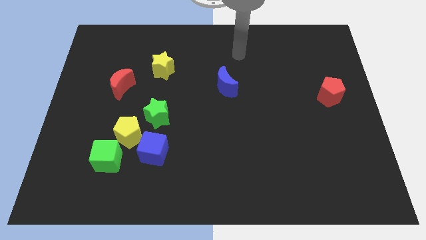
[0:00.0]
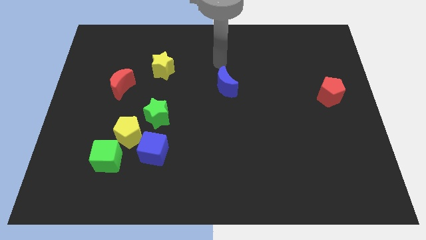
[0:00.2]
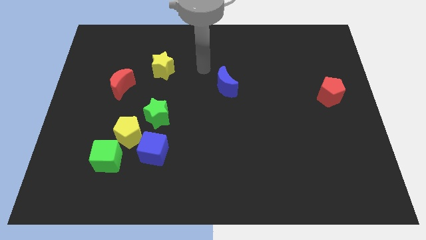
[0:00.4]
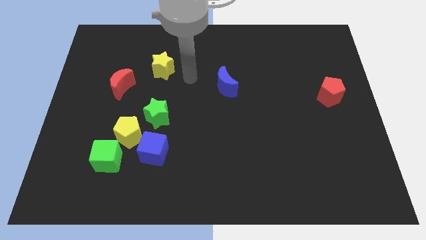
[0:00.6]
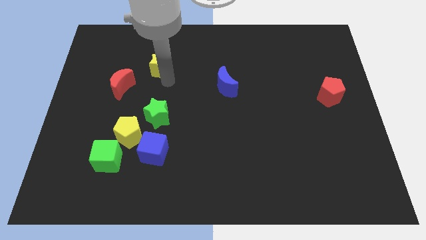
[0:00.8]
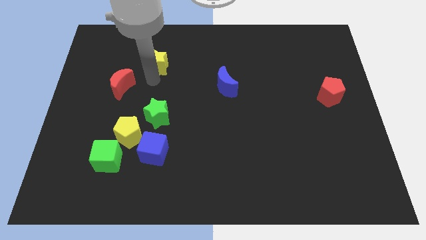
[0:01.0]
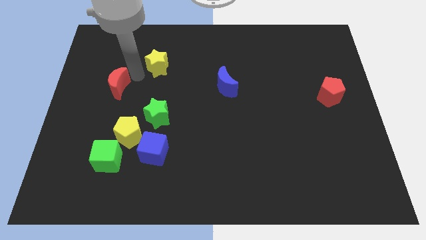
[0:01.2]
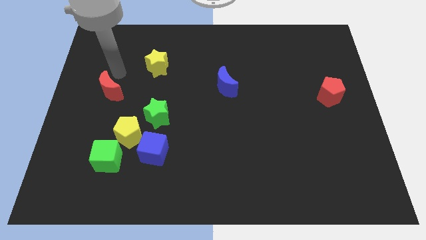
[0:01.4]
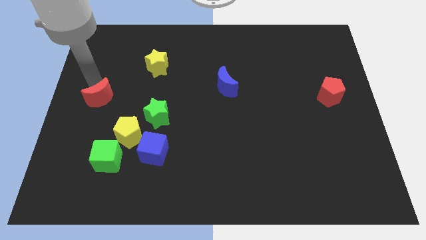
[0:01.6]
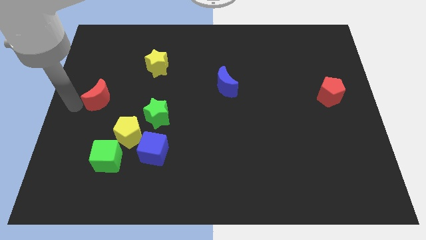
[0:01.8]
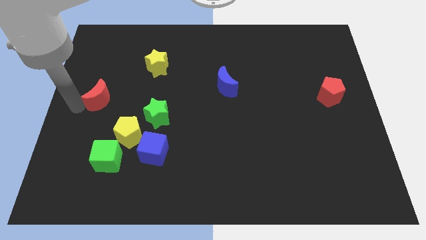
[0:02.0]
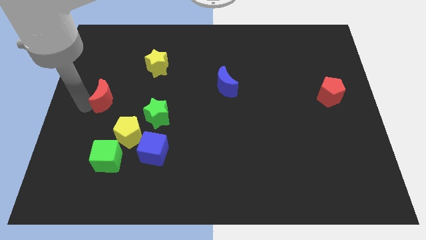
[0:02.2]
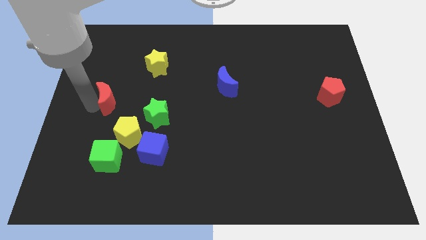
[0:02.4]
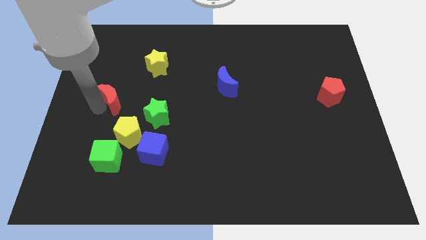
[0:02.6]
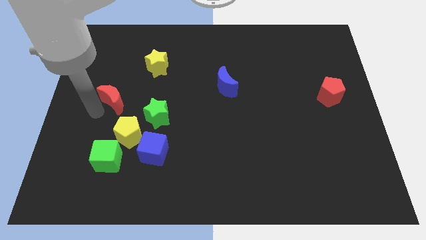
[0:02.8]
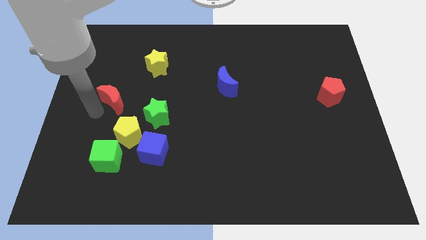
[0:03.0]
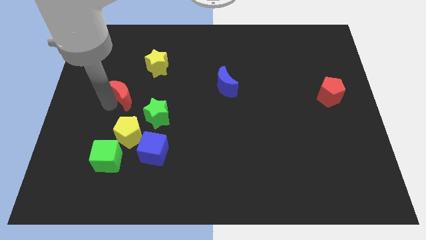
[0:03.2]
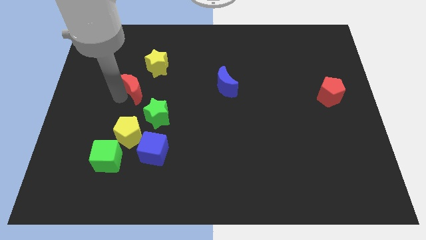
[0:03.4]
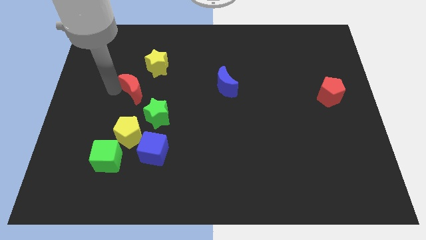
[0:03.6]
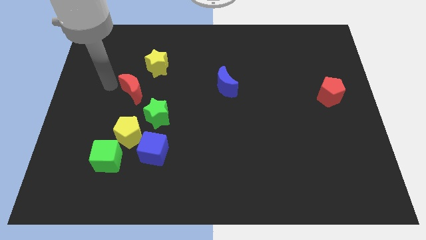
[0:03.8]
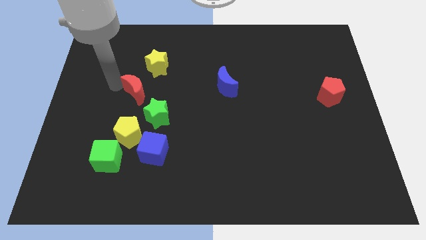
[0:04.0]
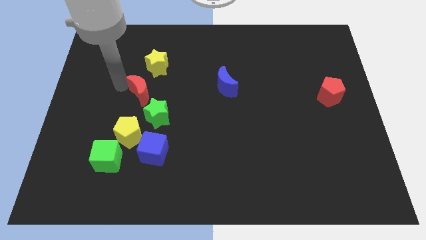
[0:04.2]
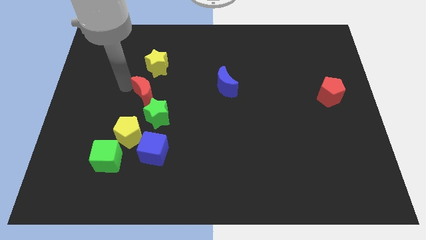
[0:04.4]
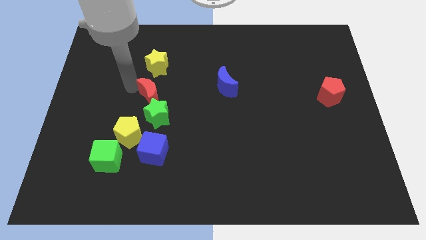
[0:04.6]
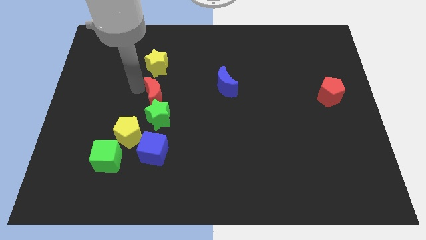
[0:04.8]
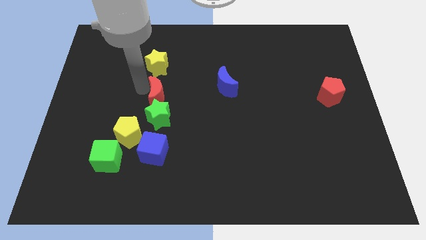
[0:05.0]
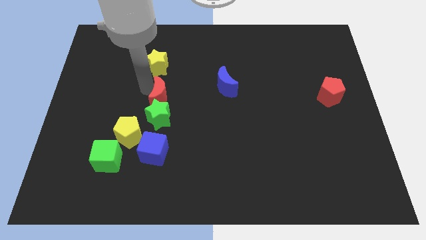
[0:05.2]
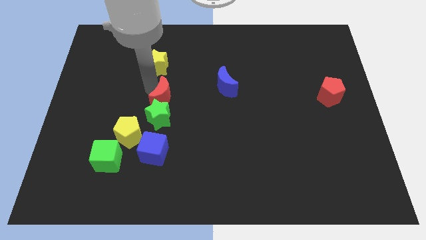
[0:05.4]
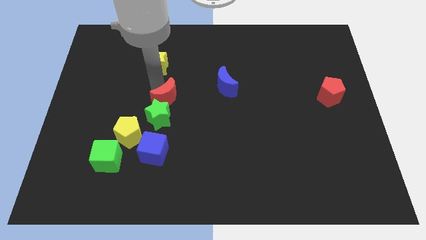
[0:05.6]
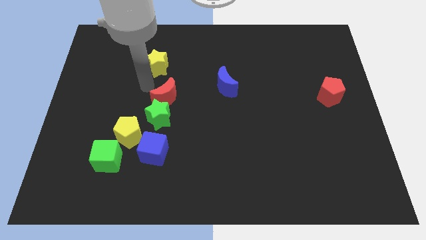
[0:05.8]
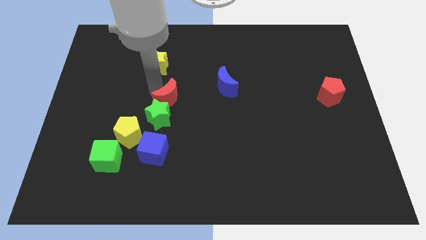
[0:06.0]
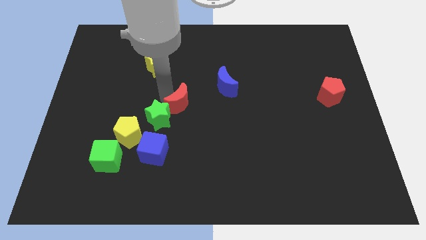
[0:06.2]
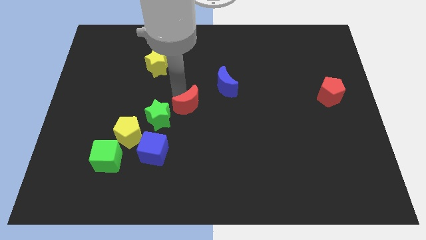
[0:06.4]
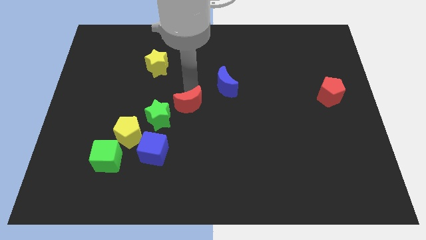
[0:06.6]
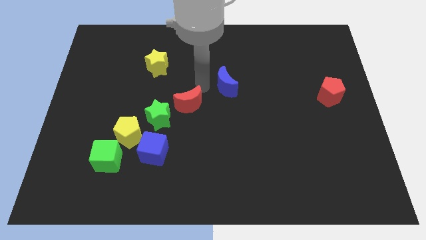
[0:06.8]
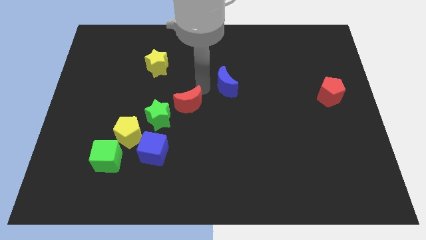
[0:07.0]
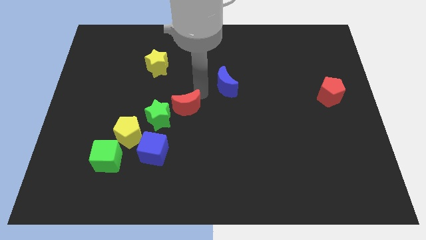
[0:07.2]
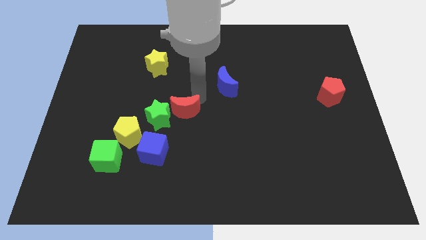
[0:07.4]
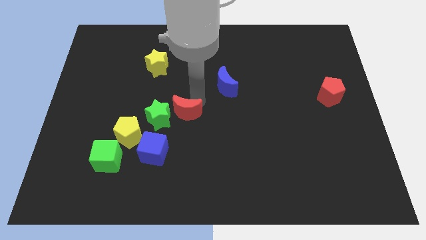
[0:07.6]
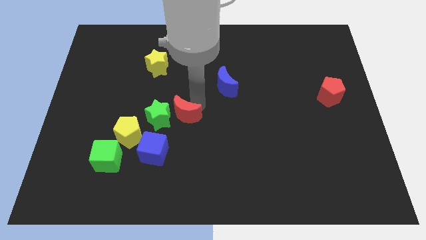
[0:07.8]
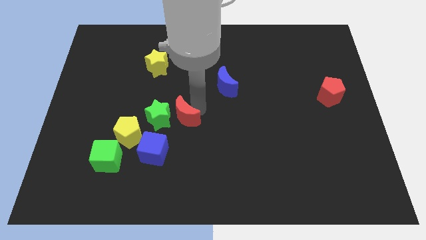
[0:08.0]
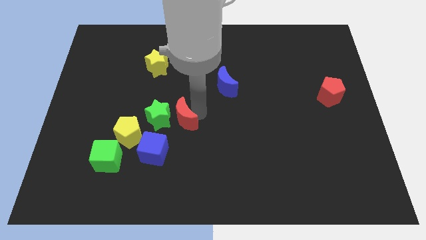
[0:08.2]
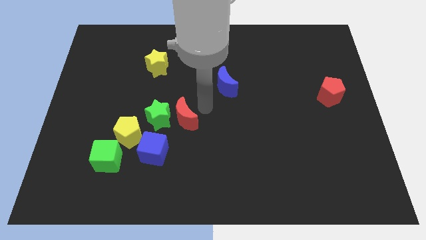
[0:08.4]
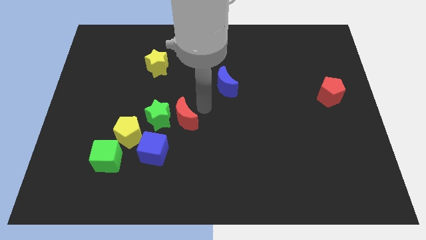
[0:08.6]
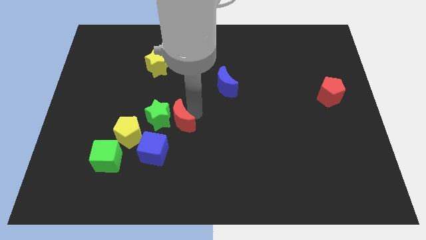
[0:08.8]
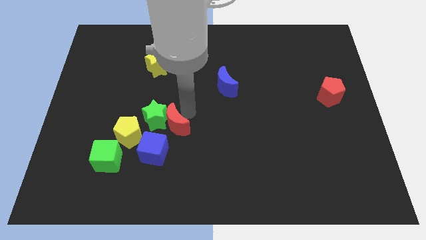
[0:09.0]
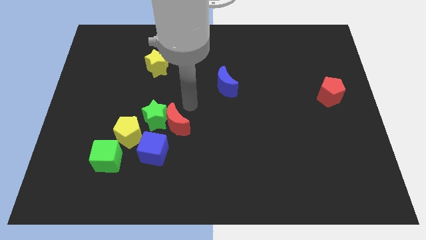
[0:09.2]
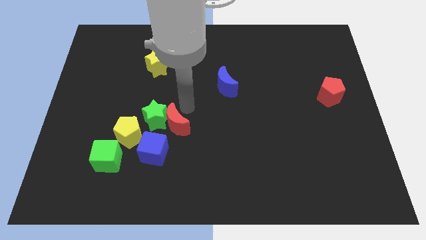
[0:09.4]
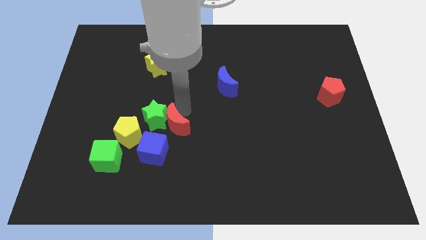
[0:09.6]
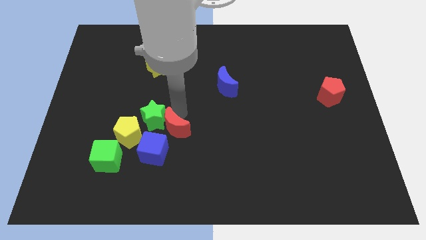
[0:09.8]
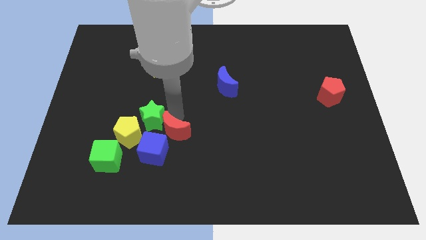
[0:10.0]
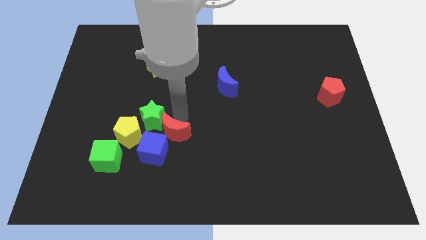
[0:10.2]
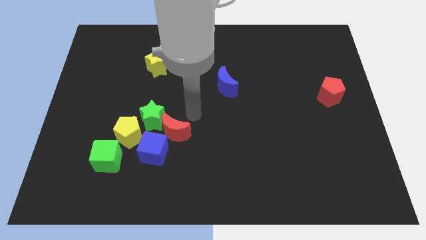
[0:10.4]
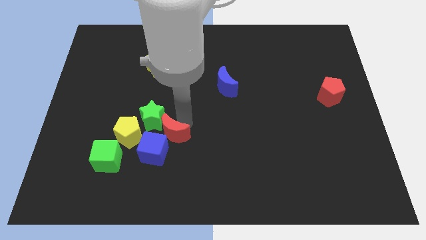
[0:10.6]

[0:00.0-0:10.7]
slide the red moon towards the blue cube

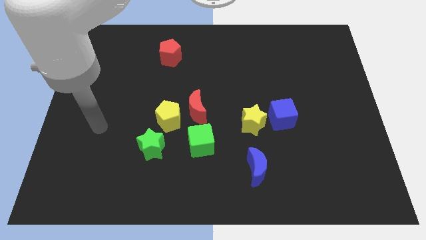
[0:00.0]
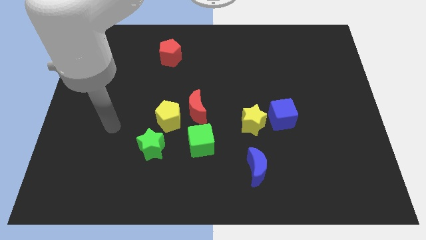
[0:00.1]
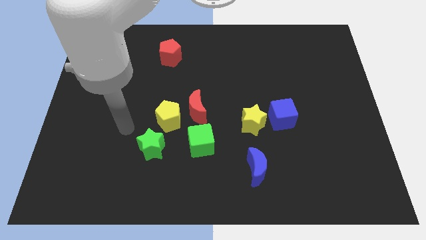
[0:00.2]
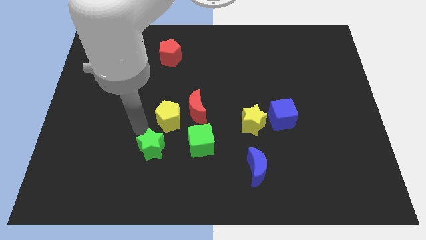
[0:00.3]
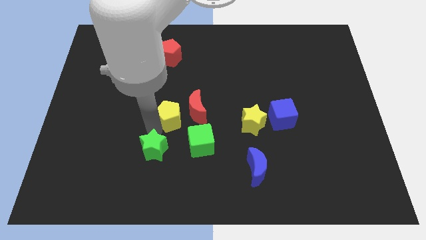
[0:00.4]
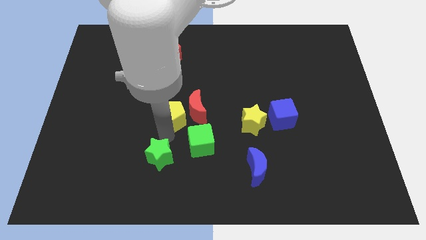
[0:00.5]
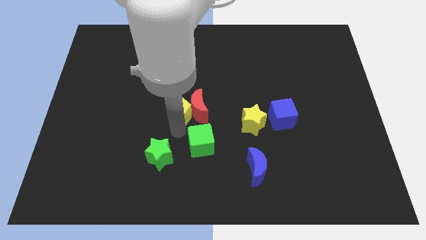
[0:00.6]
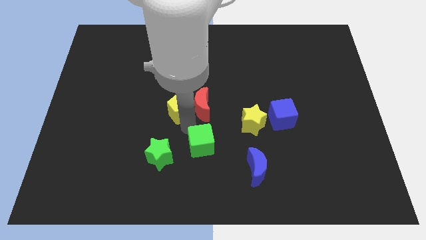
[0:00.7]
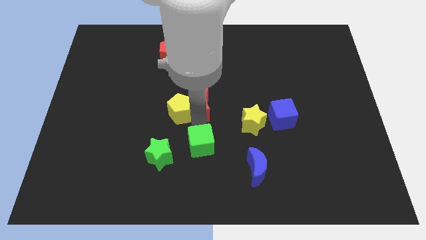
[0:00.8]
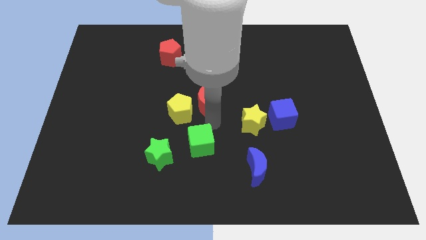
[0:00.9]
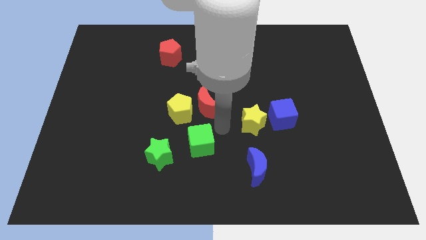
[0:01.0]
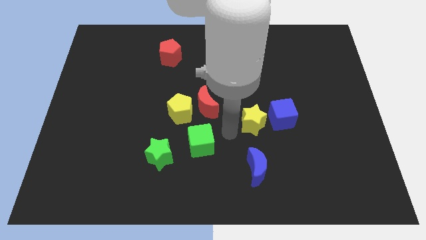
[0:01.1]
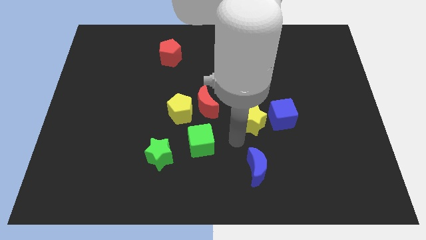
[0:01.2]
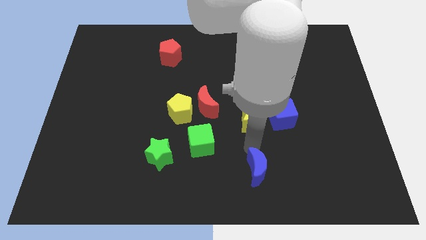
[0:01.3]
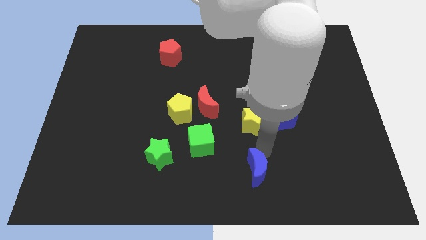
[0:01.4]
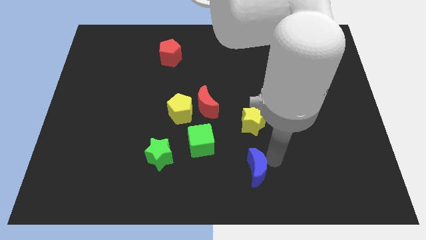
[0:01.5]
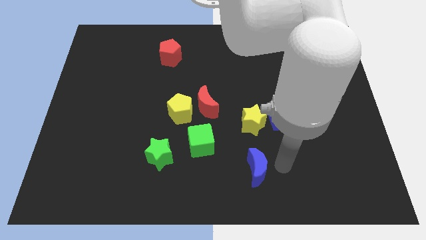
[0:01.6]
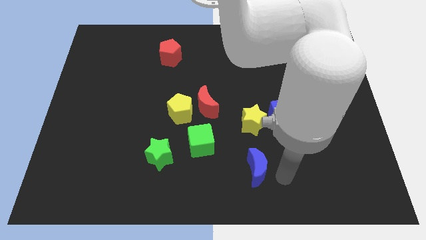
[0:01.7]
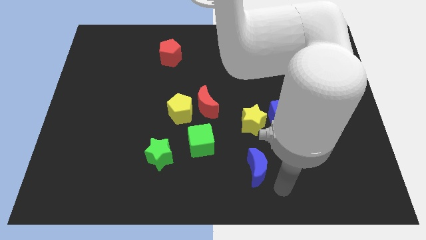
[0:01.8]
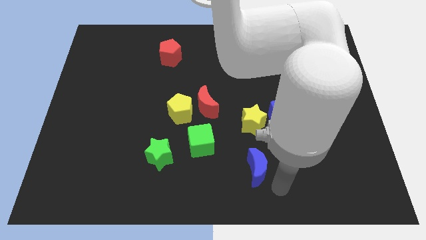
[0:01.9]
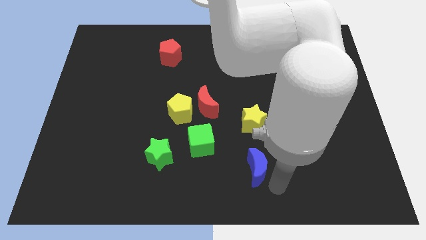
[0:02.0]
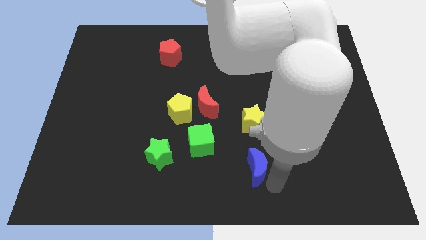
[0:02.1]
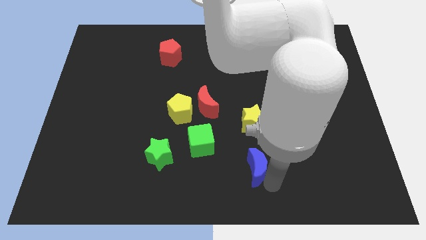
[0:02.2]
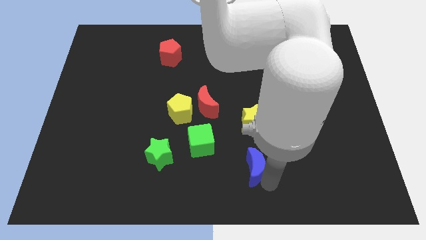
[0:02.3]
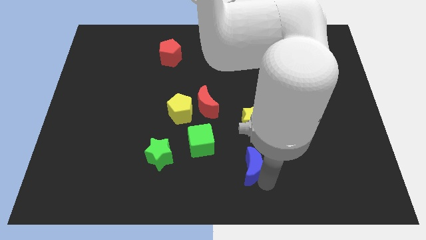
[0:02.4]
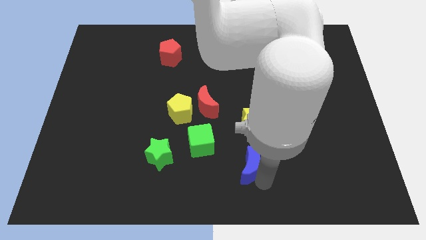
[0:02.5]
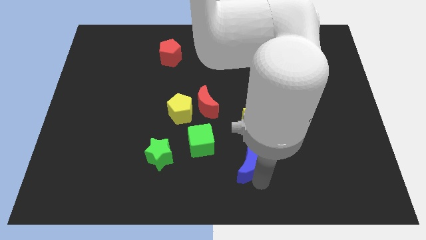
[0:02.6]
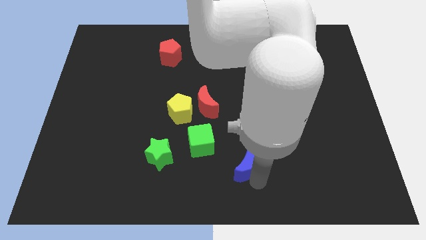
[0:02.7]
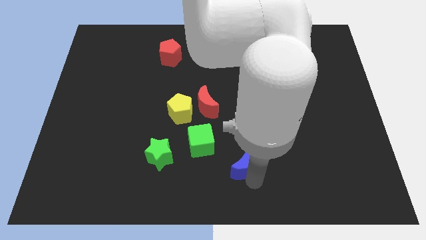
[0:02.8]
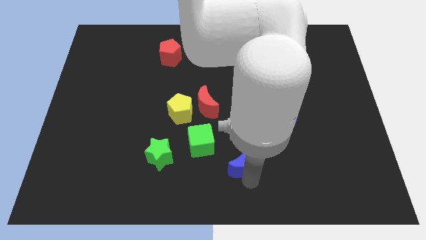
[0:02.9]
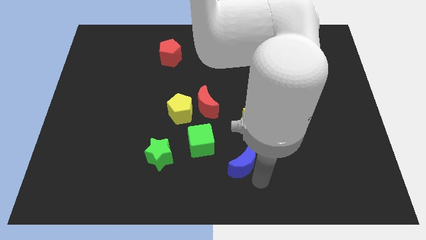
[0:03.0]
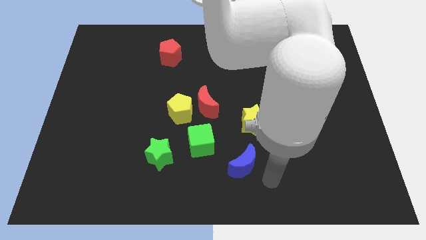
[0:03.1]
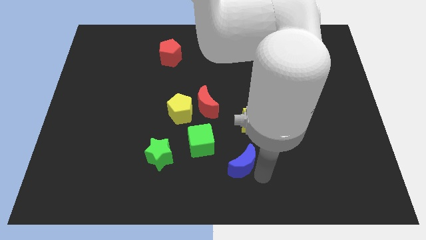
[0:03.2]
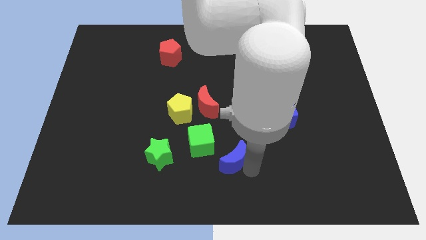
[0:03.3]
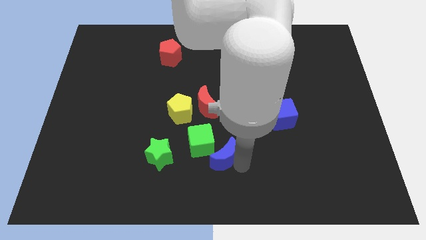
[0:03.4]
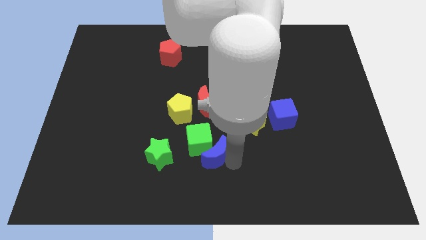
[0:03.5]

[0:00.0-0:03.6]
slide the blue moon next to the green cube
